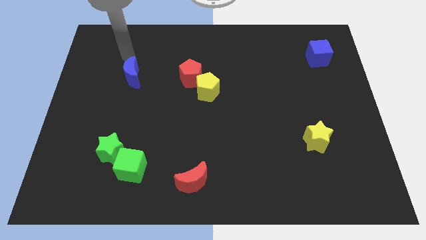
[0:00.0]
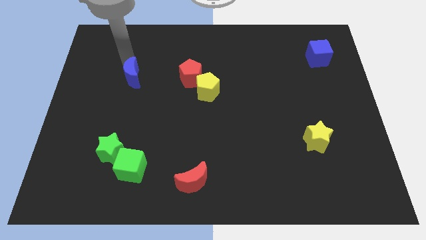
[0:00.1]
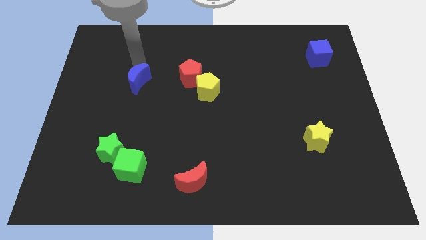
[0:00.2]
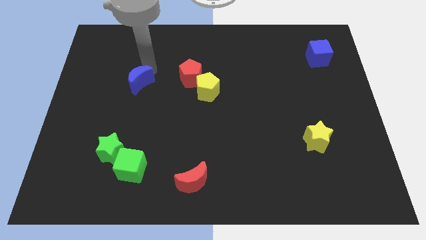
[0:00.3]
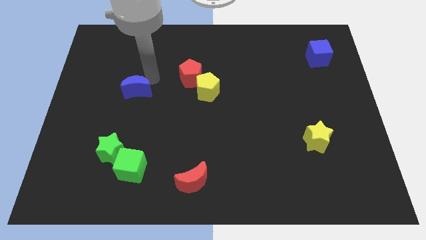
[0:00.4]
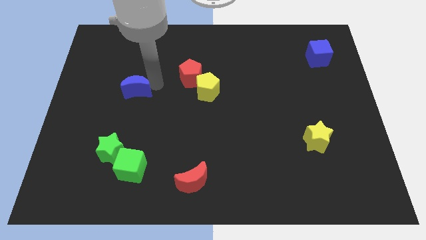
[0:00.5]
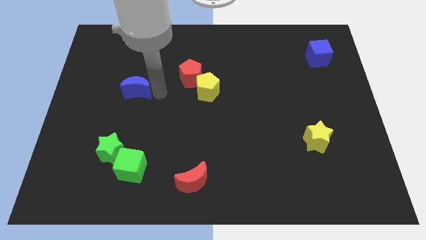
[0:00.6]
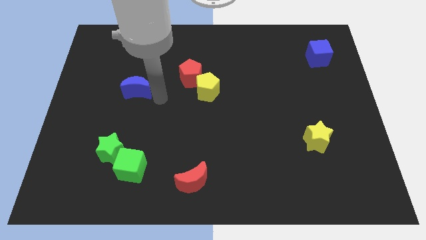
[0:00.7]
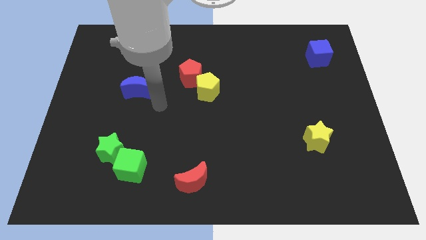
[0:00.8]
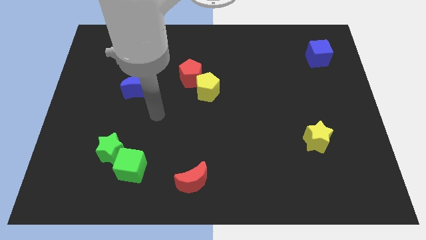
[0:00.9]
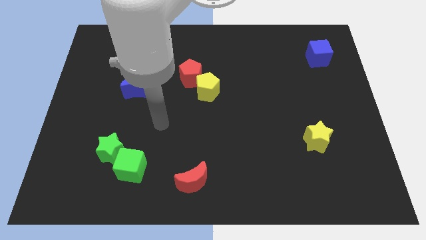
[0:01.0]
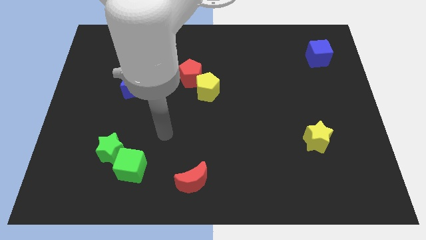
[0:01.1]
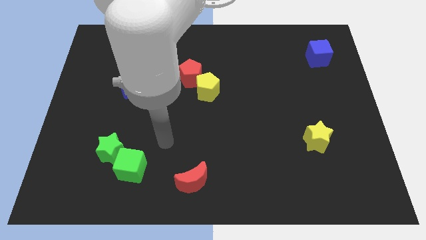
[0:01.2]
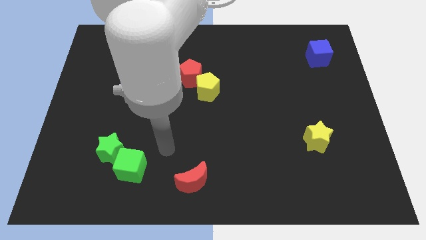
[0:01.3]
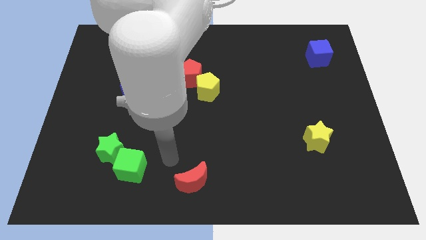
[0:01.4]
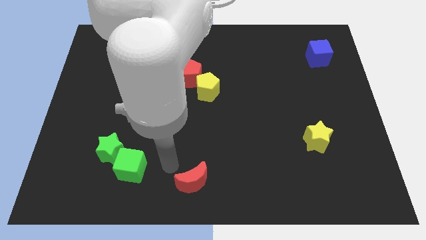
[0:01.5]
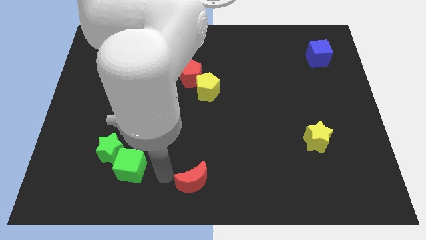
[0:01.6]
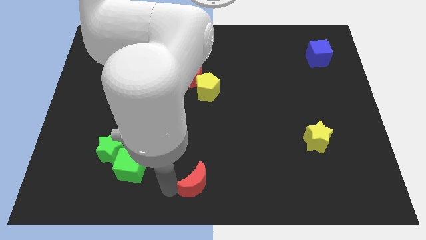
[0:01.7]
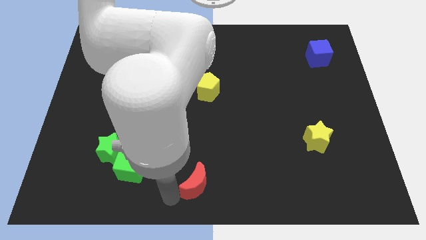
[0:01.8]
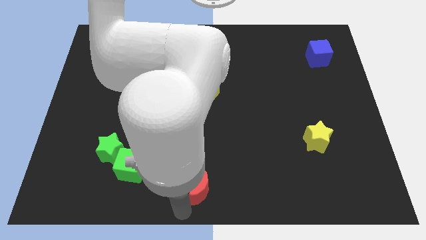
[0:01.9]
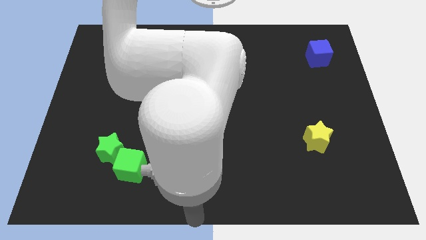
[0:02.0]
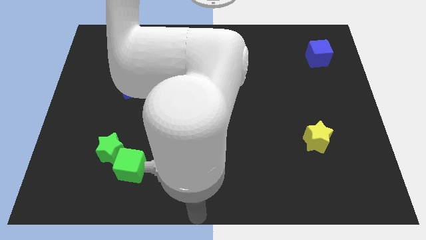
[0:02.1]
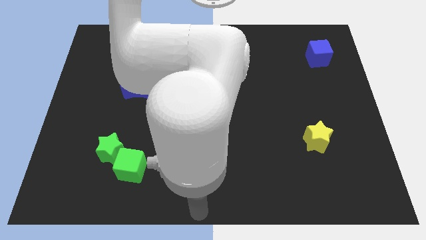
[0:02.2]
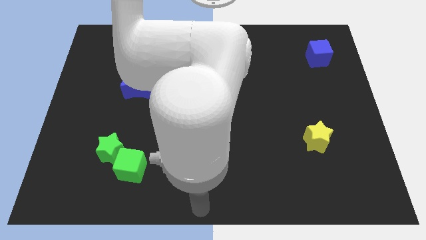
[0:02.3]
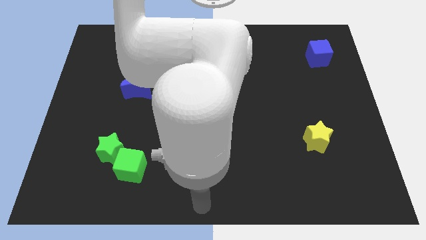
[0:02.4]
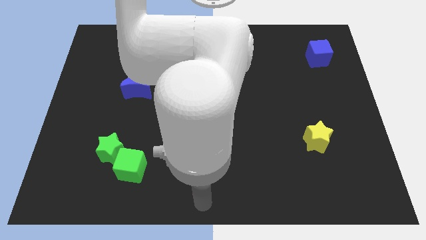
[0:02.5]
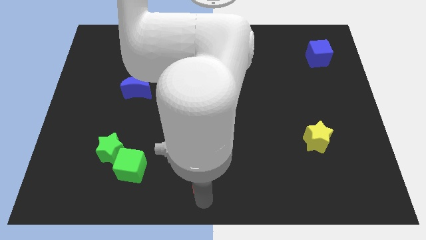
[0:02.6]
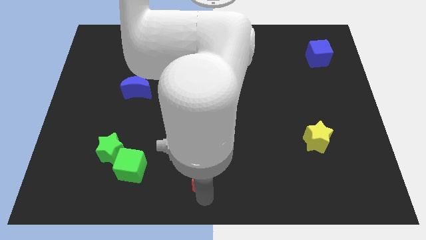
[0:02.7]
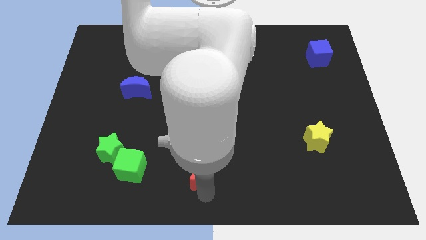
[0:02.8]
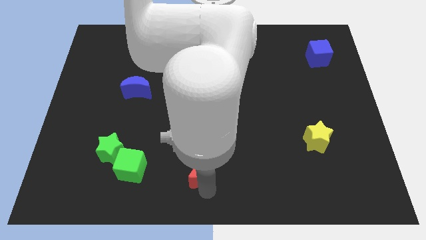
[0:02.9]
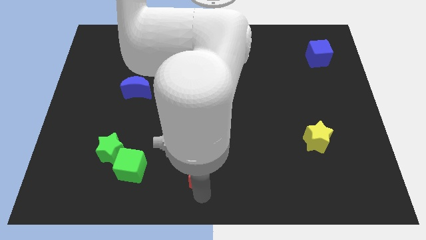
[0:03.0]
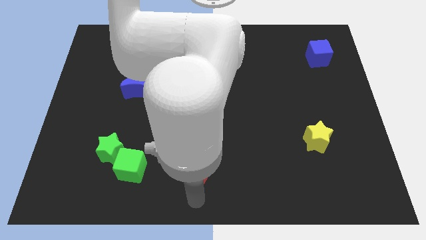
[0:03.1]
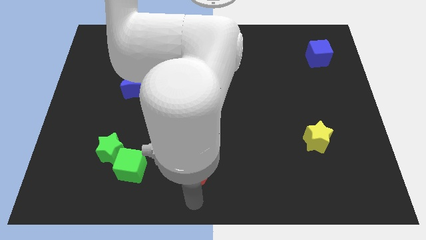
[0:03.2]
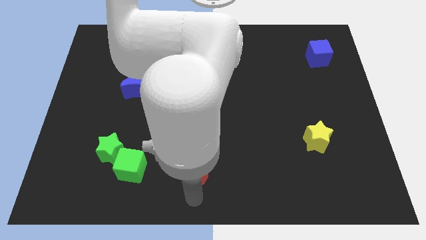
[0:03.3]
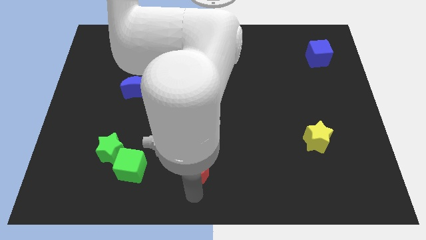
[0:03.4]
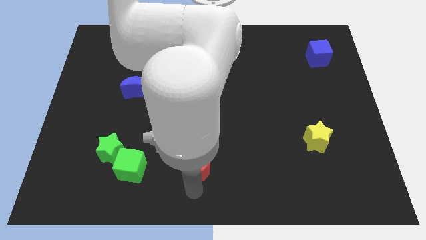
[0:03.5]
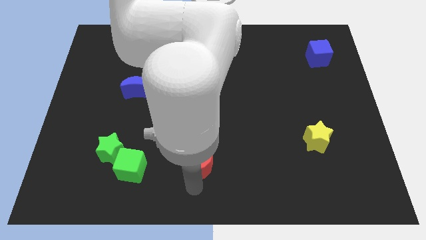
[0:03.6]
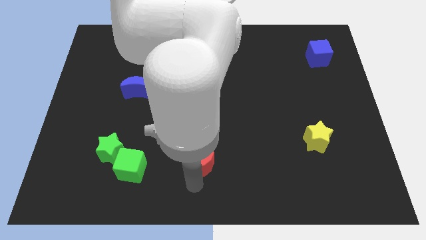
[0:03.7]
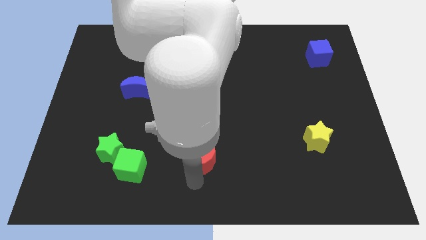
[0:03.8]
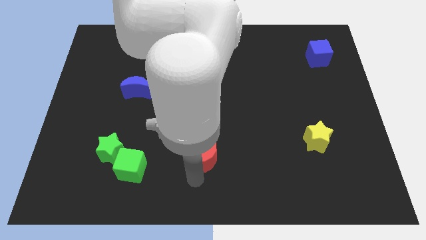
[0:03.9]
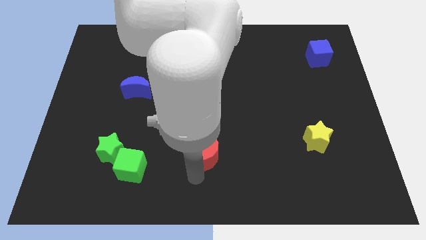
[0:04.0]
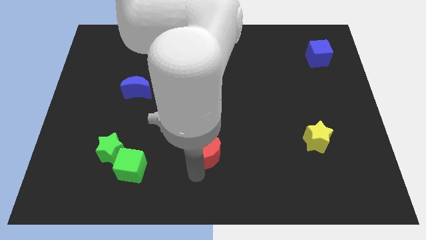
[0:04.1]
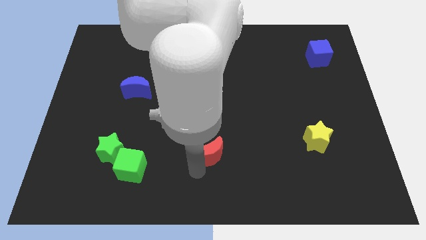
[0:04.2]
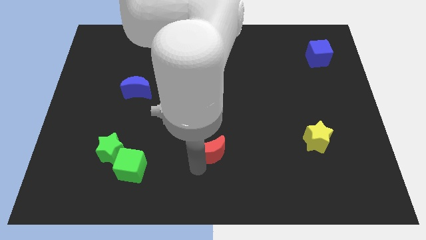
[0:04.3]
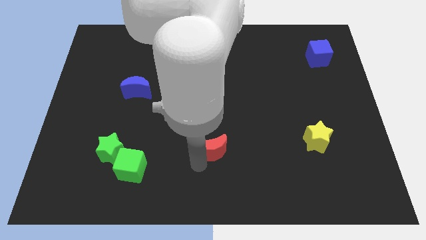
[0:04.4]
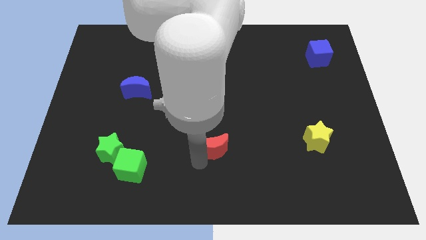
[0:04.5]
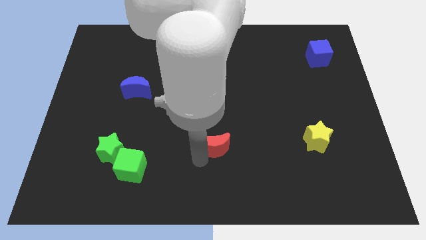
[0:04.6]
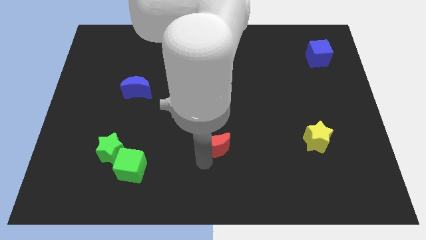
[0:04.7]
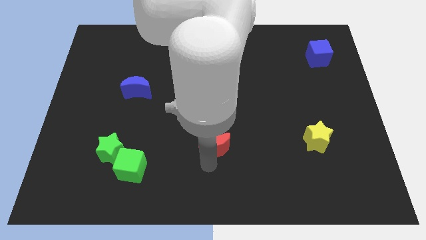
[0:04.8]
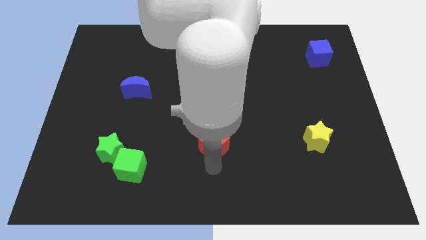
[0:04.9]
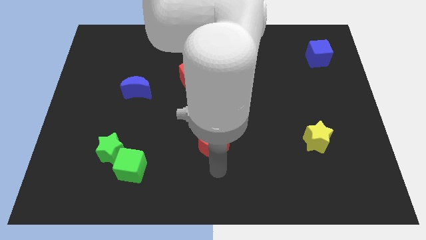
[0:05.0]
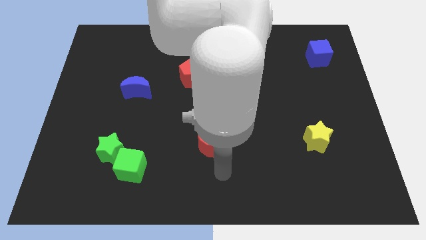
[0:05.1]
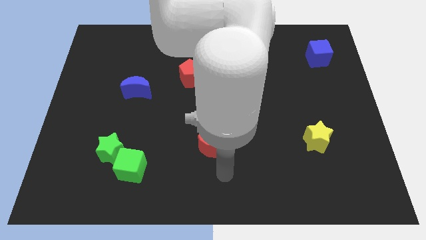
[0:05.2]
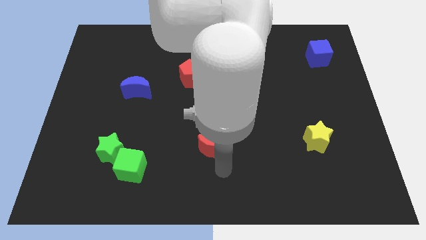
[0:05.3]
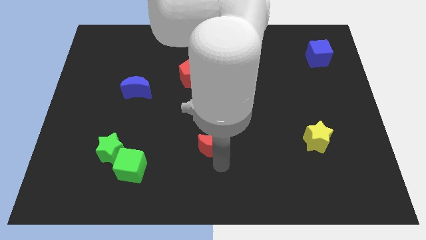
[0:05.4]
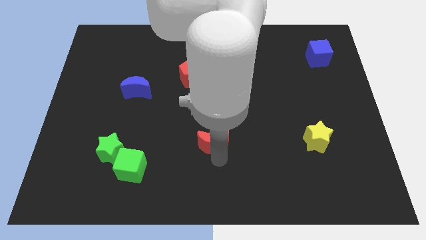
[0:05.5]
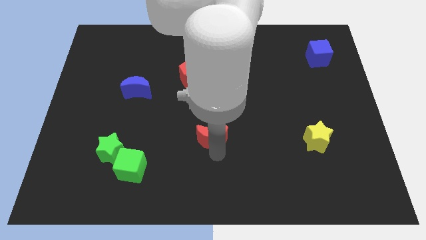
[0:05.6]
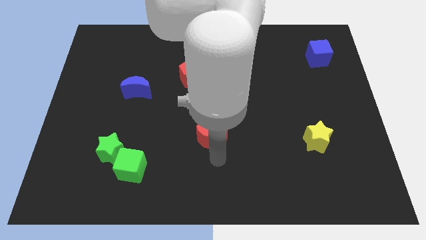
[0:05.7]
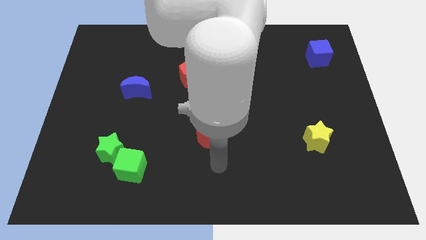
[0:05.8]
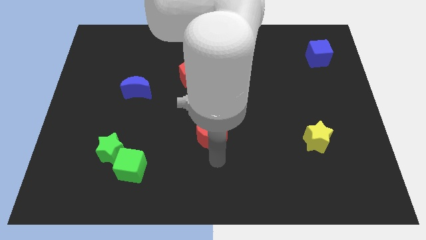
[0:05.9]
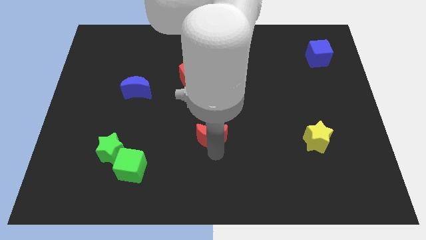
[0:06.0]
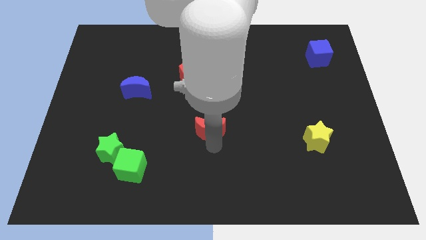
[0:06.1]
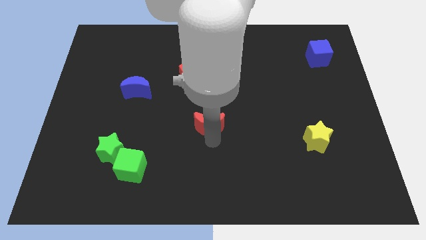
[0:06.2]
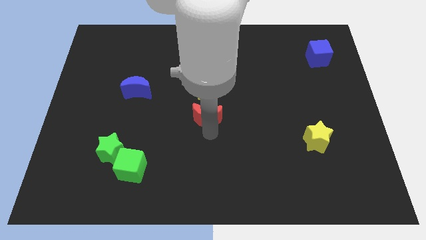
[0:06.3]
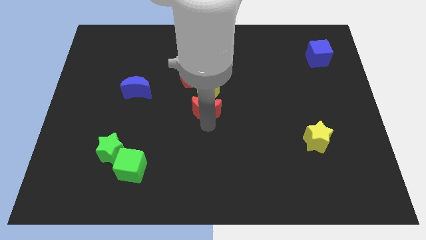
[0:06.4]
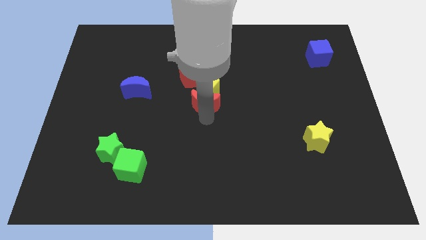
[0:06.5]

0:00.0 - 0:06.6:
put the red moon to the yellow pentagon

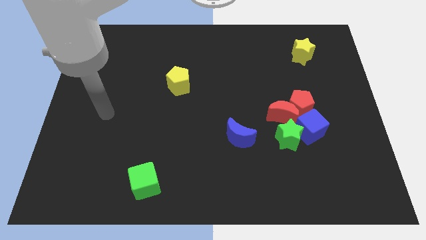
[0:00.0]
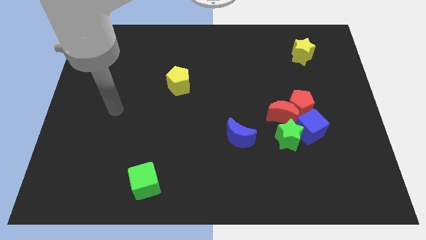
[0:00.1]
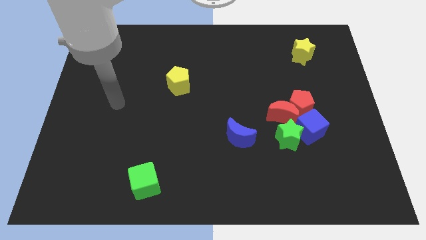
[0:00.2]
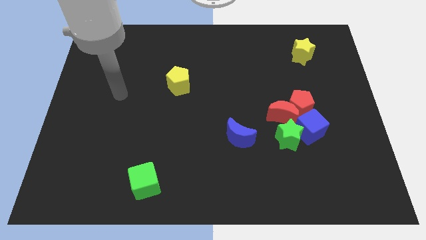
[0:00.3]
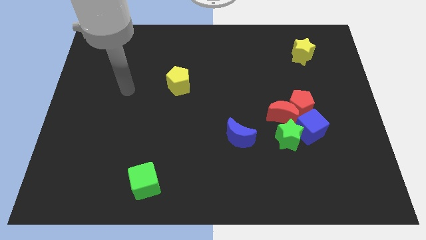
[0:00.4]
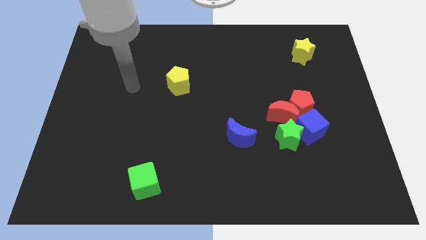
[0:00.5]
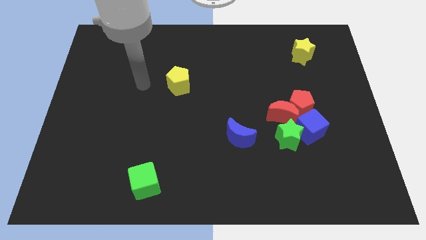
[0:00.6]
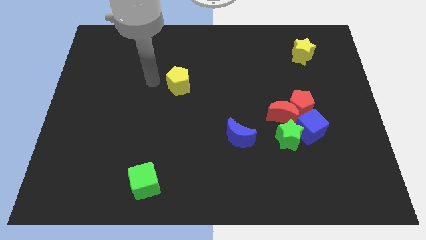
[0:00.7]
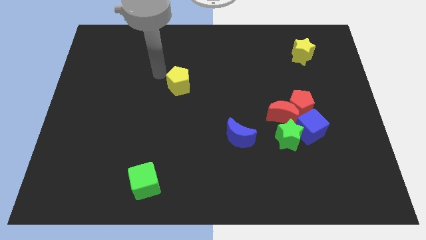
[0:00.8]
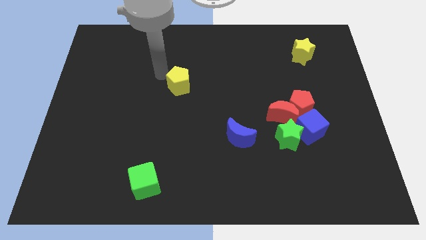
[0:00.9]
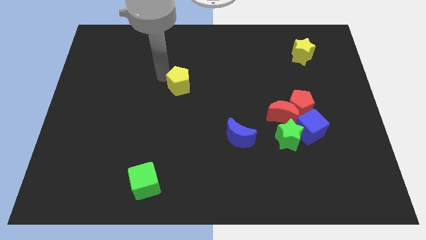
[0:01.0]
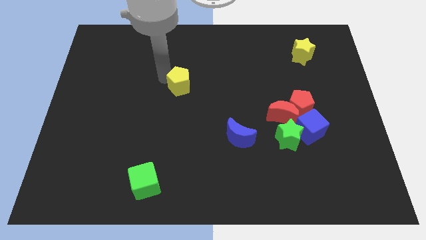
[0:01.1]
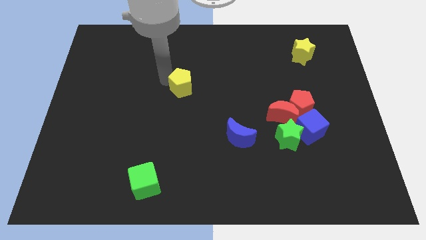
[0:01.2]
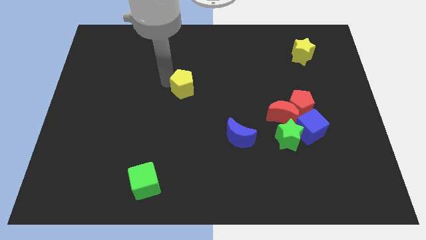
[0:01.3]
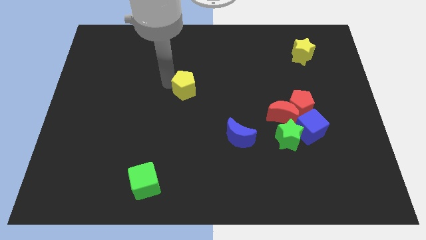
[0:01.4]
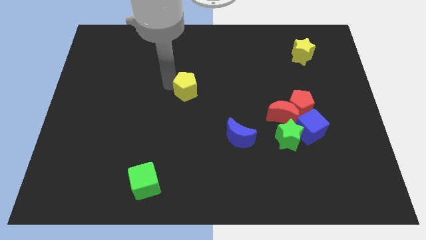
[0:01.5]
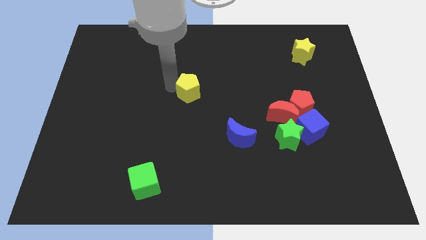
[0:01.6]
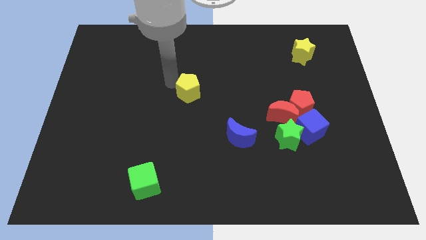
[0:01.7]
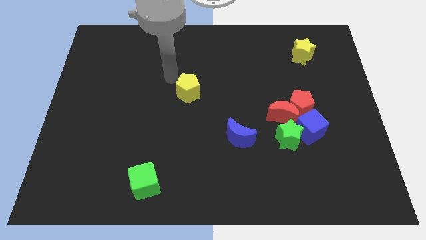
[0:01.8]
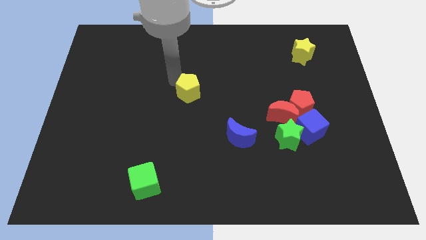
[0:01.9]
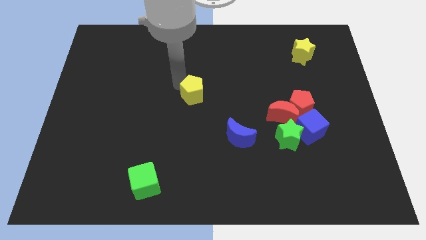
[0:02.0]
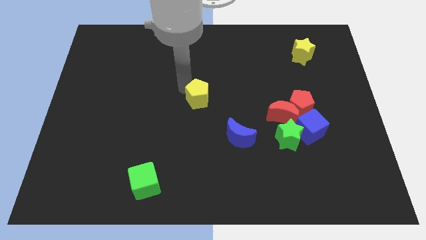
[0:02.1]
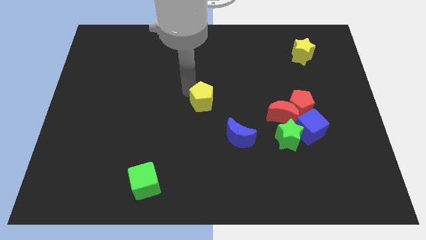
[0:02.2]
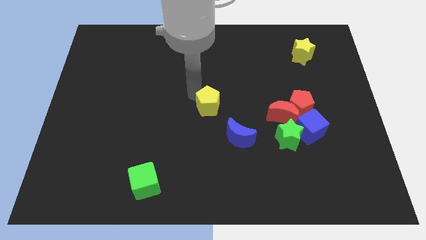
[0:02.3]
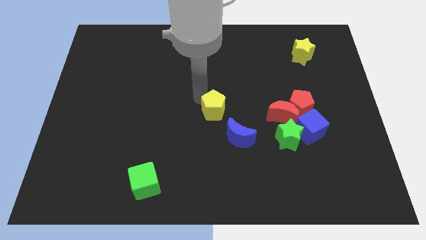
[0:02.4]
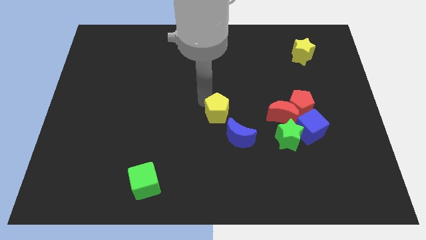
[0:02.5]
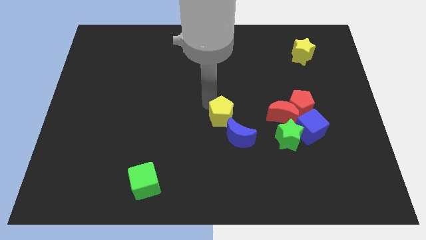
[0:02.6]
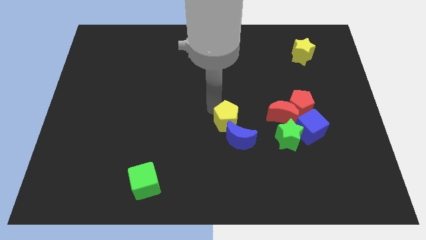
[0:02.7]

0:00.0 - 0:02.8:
put the yellow pentagon to the blue moon
